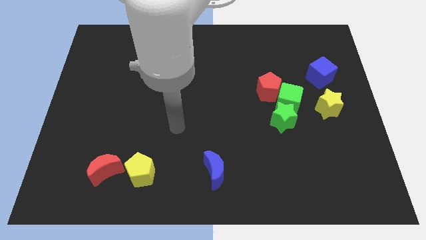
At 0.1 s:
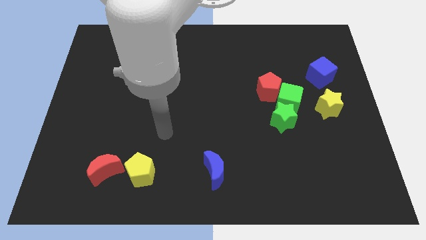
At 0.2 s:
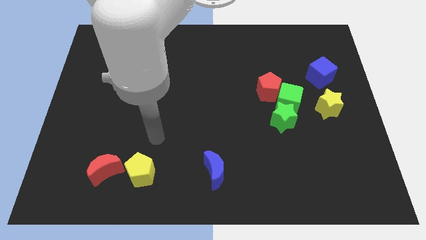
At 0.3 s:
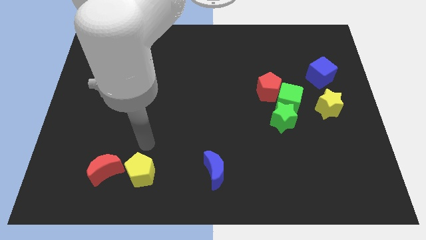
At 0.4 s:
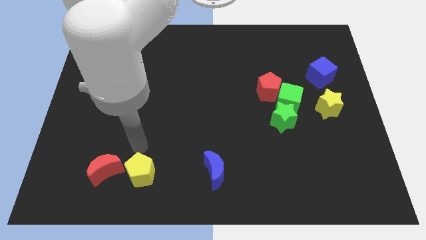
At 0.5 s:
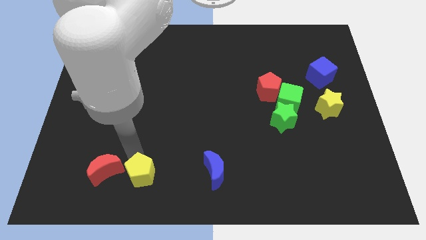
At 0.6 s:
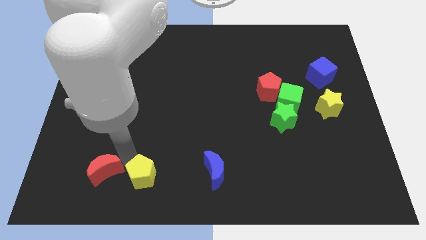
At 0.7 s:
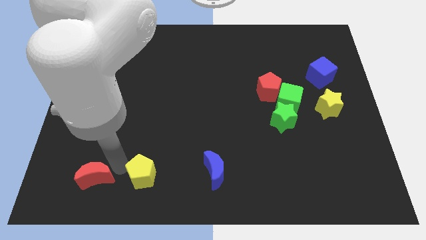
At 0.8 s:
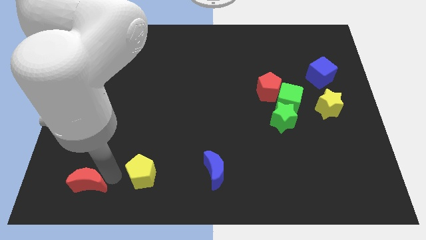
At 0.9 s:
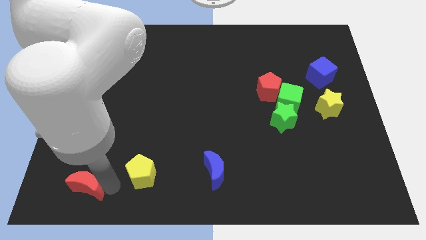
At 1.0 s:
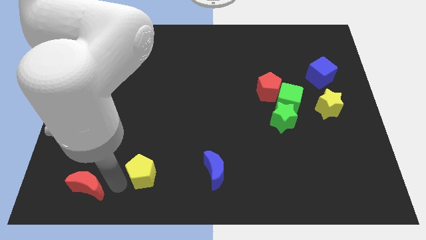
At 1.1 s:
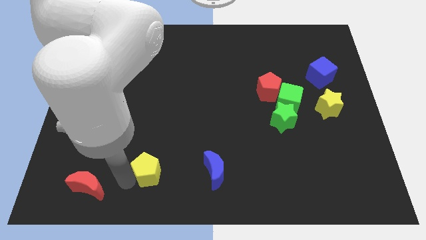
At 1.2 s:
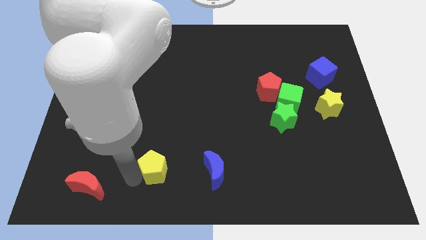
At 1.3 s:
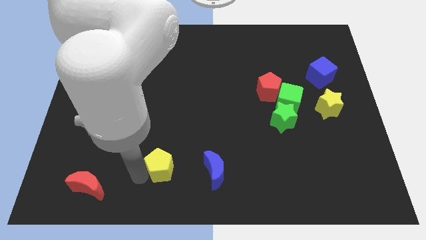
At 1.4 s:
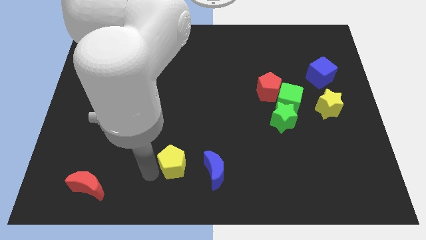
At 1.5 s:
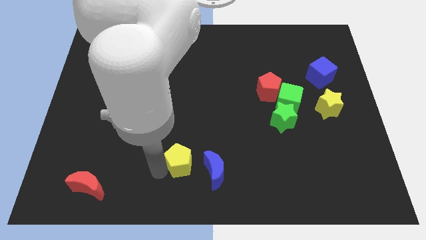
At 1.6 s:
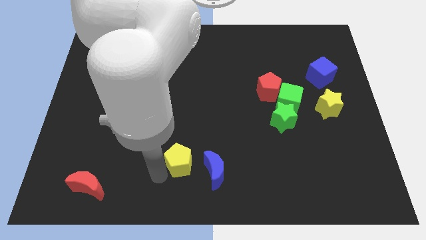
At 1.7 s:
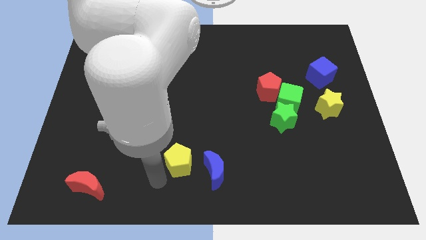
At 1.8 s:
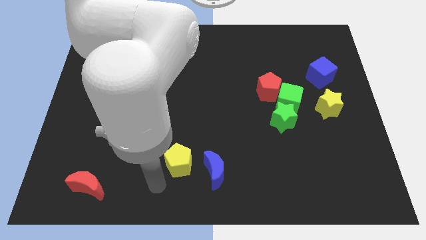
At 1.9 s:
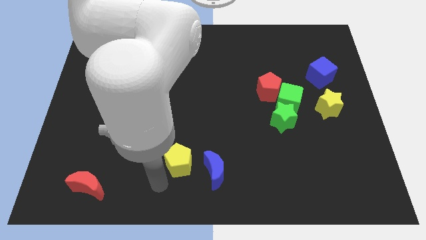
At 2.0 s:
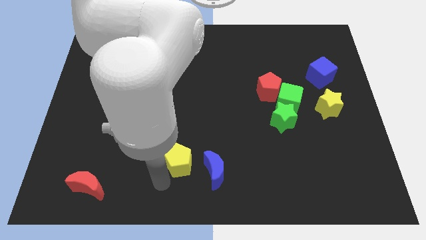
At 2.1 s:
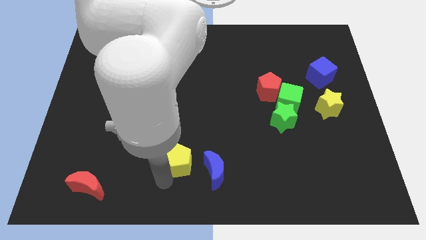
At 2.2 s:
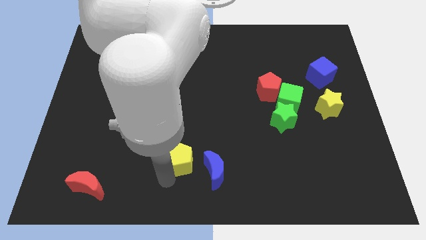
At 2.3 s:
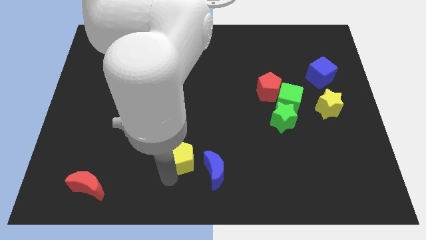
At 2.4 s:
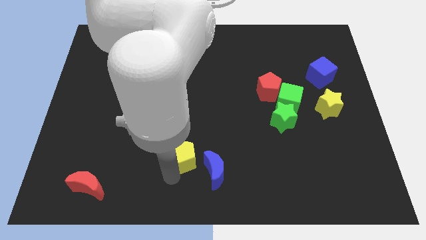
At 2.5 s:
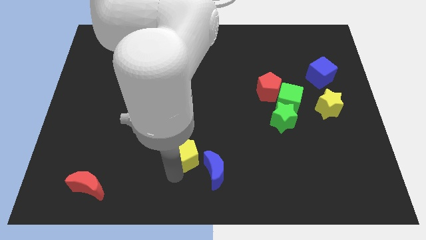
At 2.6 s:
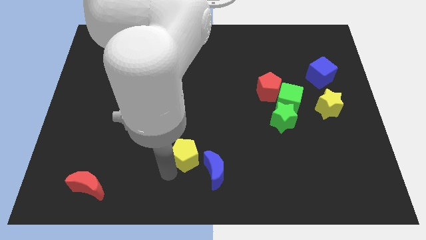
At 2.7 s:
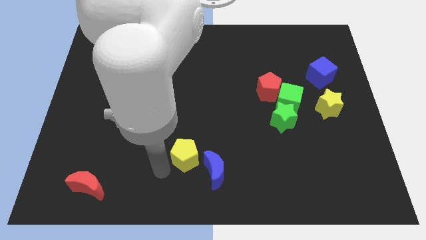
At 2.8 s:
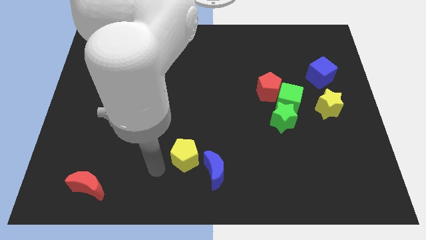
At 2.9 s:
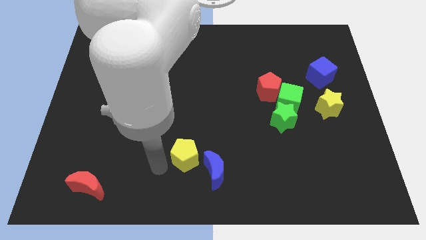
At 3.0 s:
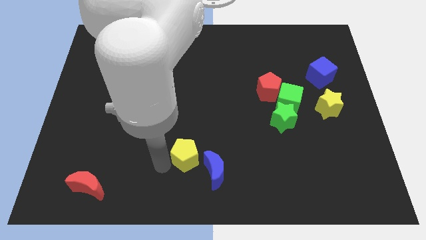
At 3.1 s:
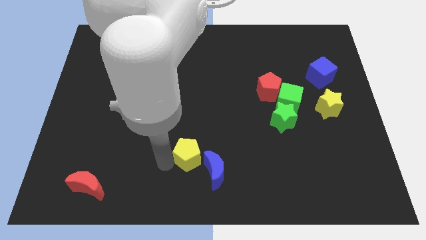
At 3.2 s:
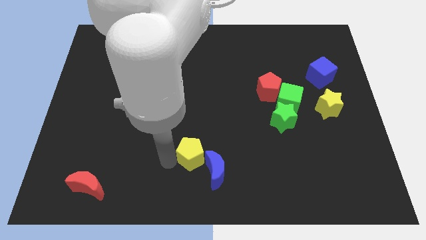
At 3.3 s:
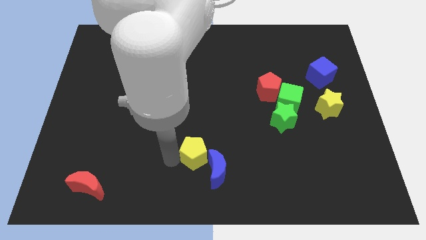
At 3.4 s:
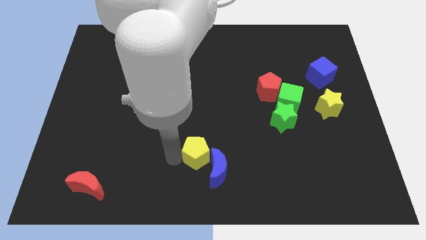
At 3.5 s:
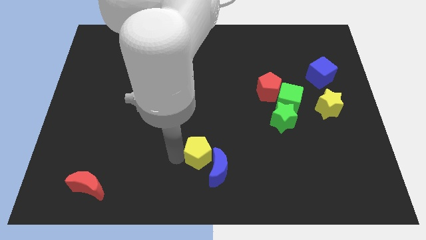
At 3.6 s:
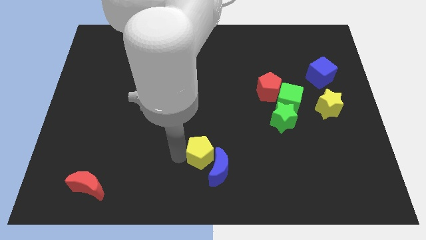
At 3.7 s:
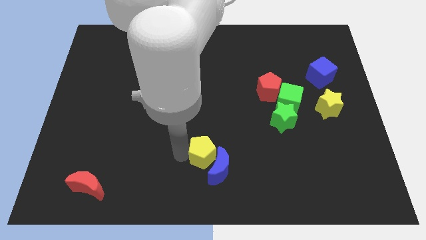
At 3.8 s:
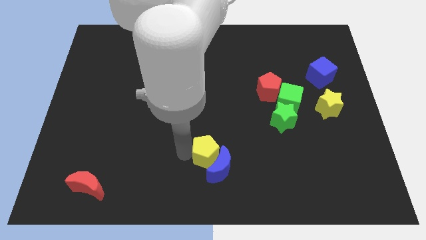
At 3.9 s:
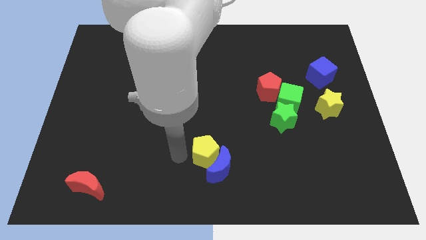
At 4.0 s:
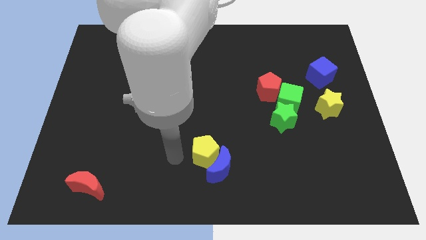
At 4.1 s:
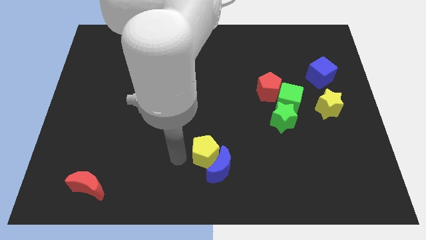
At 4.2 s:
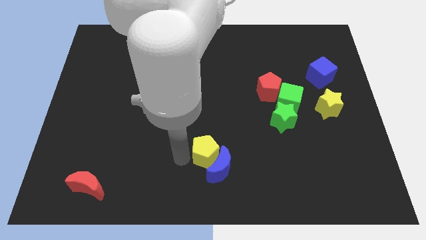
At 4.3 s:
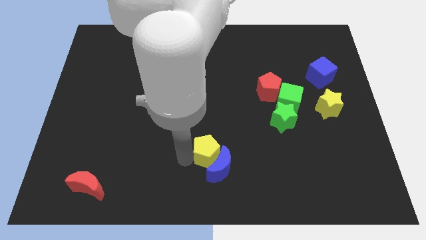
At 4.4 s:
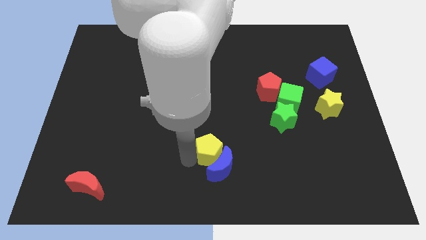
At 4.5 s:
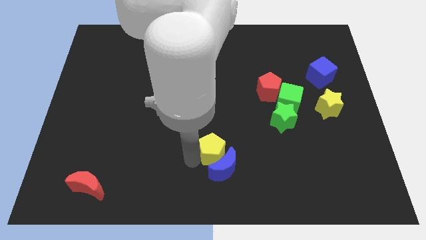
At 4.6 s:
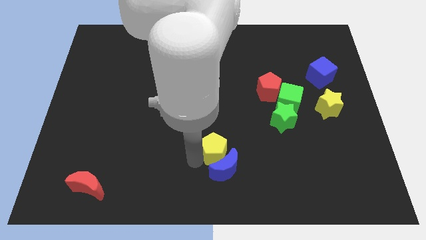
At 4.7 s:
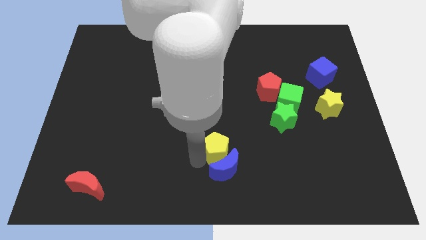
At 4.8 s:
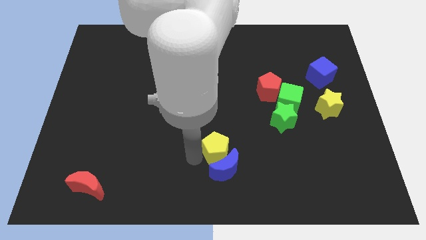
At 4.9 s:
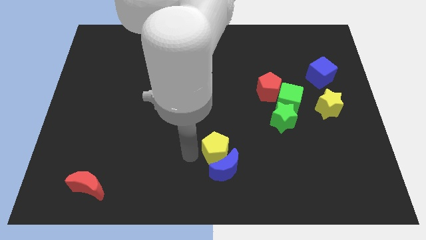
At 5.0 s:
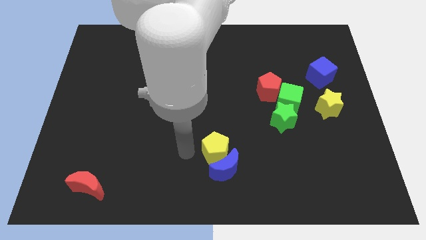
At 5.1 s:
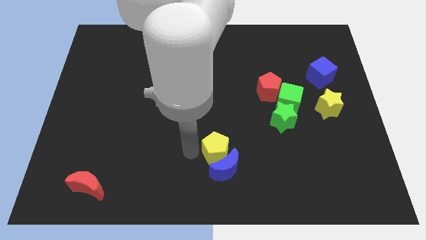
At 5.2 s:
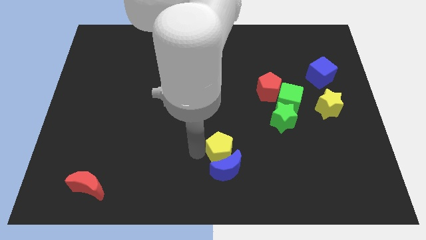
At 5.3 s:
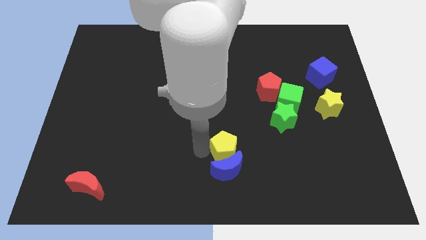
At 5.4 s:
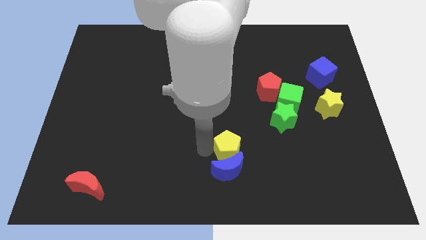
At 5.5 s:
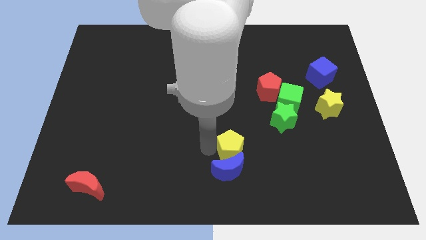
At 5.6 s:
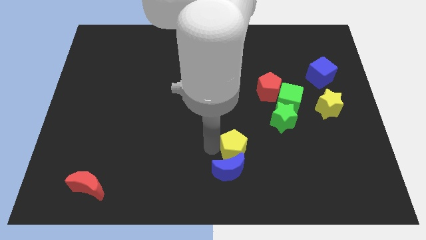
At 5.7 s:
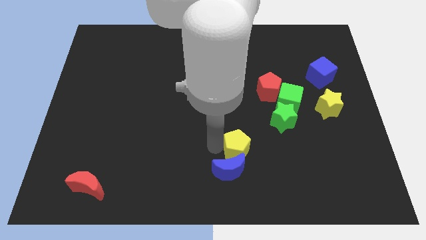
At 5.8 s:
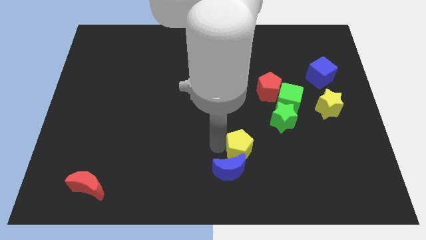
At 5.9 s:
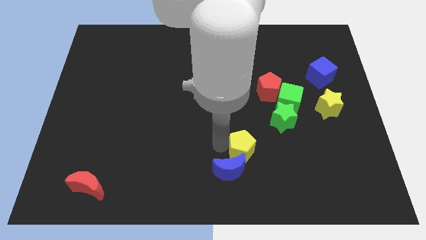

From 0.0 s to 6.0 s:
push the yellow pentagon to the right

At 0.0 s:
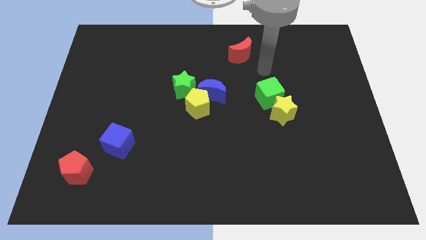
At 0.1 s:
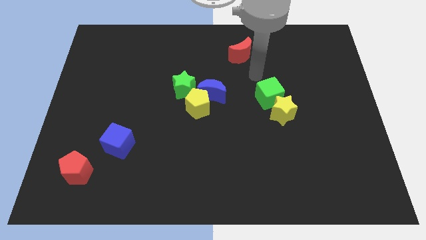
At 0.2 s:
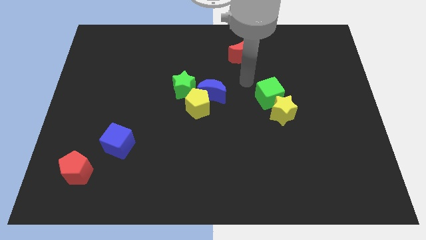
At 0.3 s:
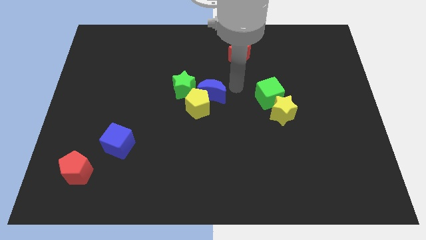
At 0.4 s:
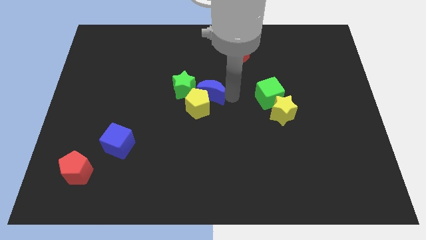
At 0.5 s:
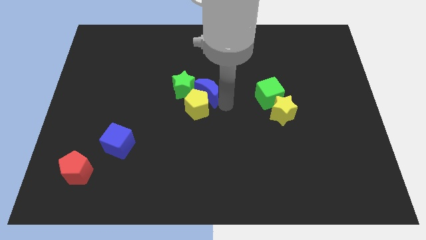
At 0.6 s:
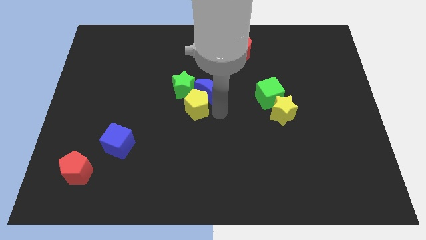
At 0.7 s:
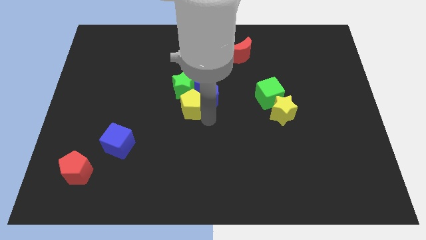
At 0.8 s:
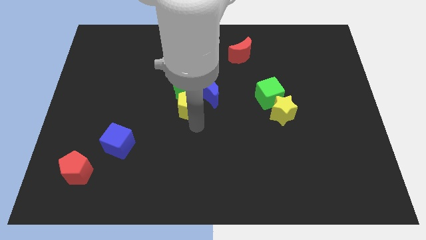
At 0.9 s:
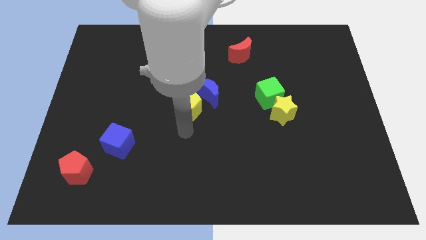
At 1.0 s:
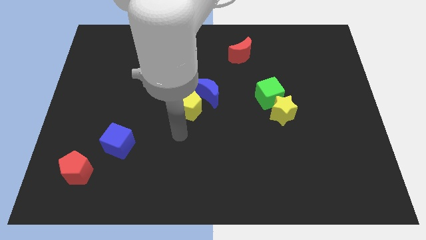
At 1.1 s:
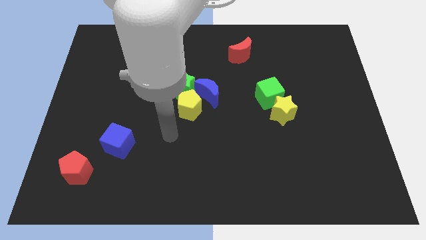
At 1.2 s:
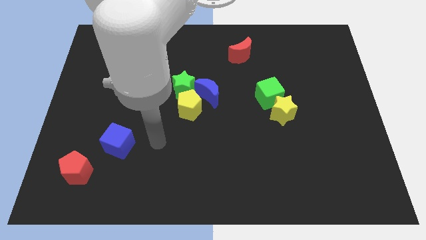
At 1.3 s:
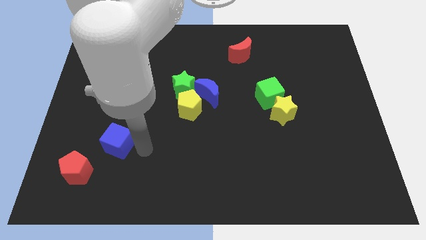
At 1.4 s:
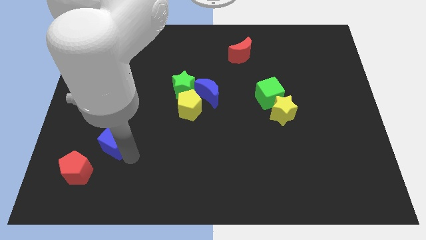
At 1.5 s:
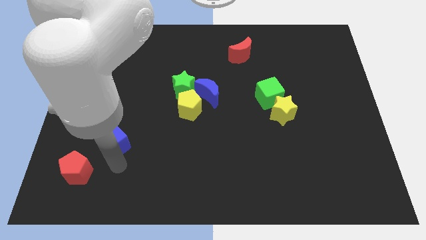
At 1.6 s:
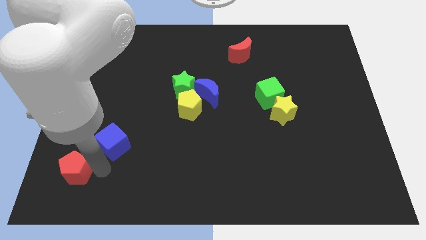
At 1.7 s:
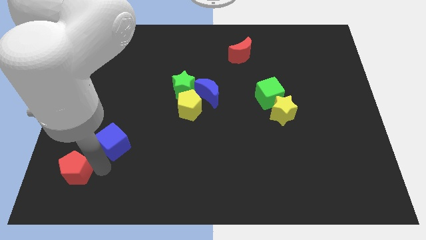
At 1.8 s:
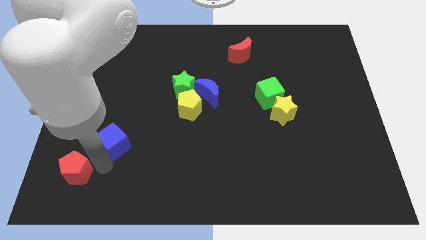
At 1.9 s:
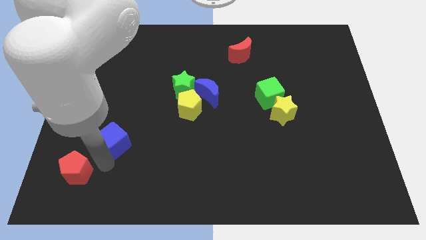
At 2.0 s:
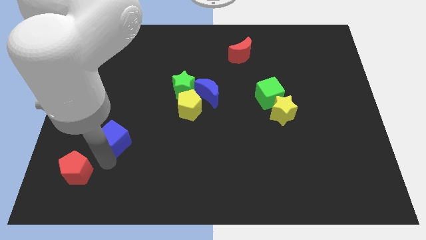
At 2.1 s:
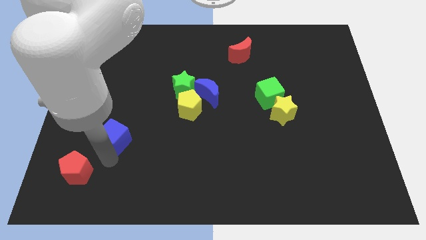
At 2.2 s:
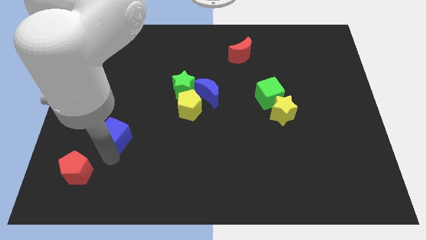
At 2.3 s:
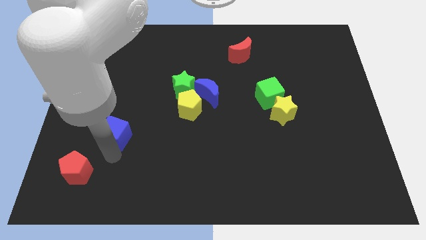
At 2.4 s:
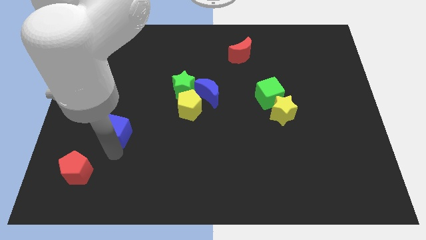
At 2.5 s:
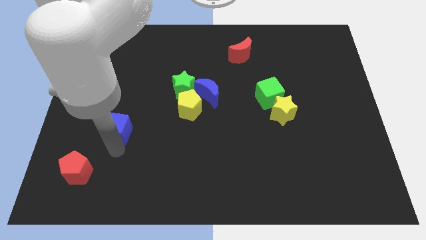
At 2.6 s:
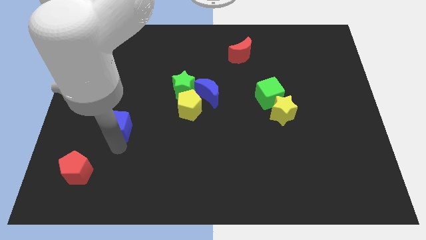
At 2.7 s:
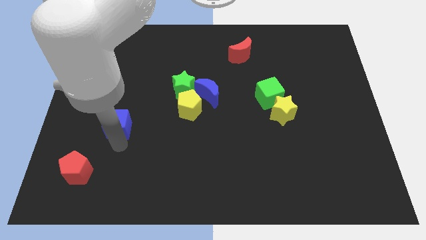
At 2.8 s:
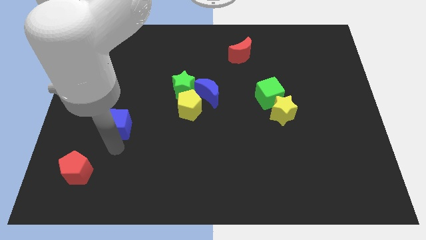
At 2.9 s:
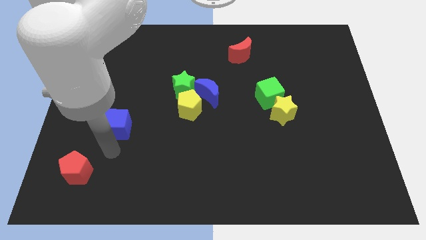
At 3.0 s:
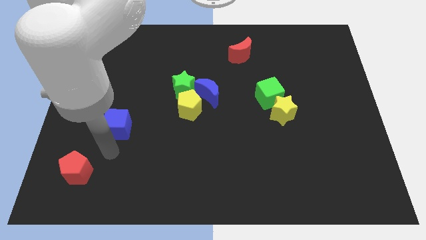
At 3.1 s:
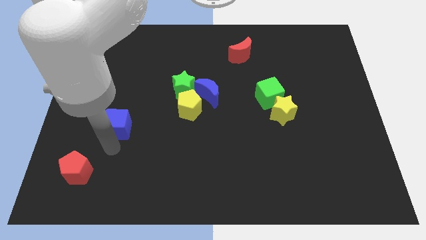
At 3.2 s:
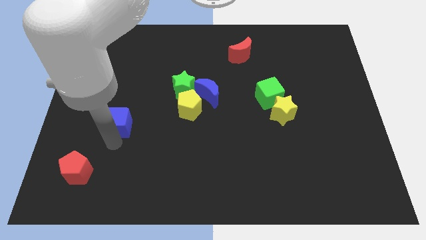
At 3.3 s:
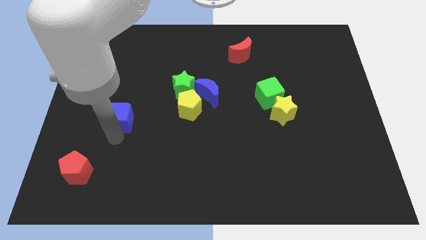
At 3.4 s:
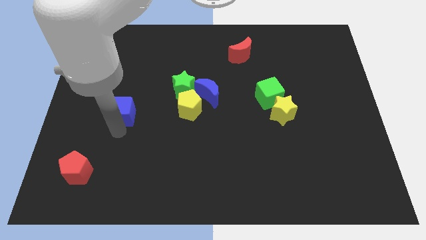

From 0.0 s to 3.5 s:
move the blue cube a little bit upwards
